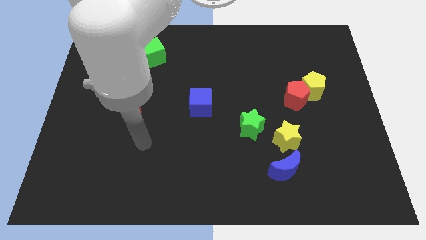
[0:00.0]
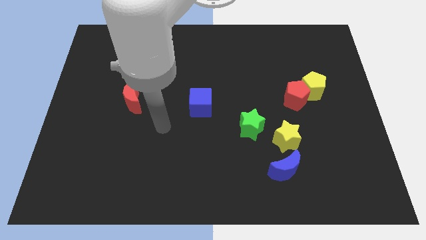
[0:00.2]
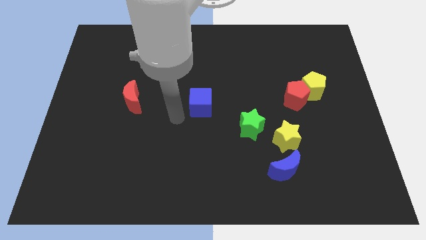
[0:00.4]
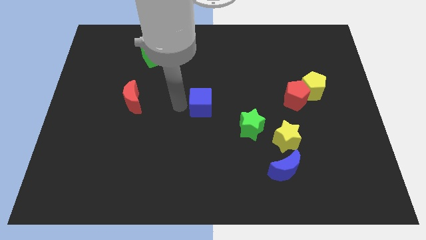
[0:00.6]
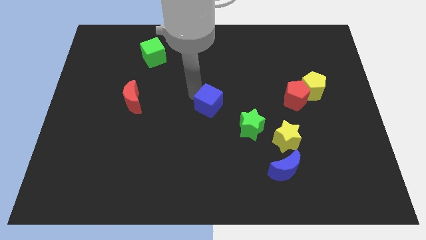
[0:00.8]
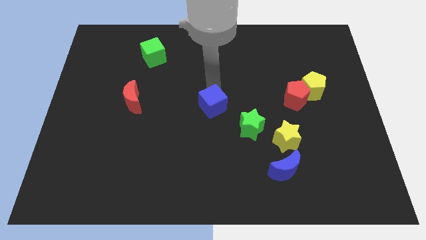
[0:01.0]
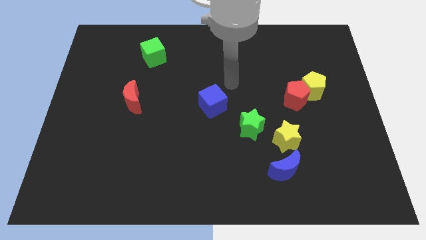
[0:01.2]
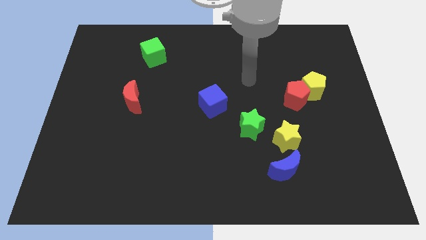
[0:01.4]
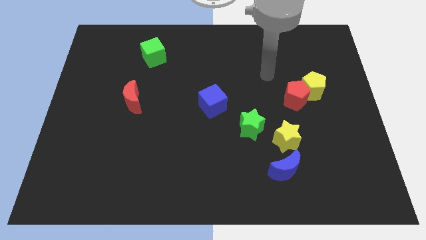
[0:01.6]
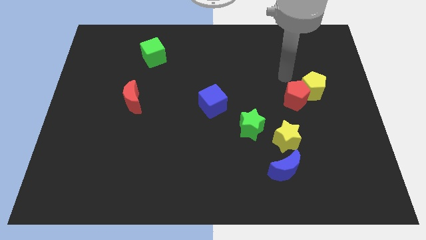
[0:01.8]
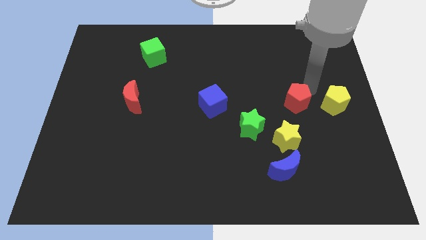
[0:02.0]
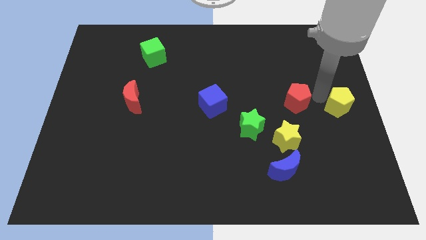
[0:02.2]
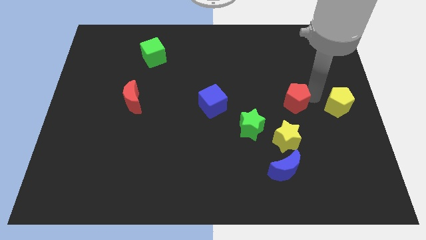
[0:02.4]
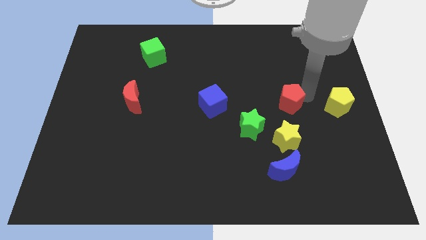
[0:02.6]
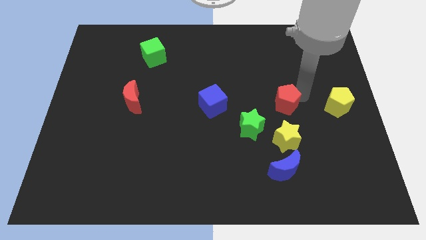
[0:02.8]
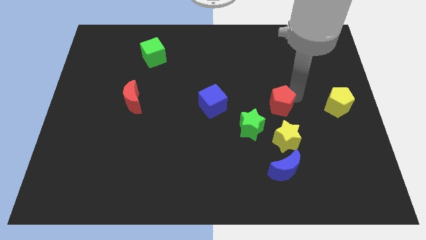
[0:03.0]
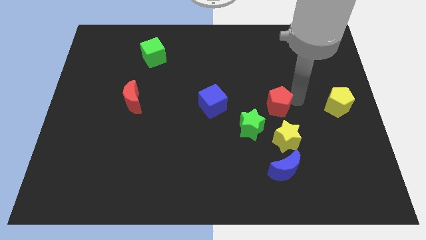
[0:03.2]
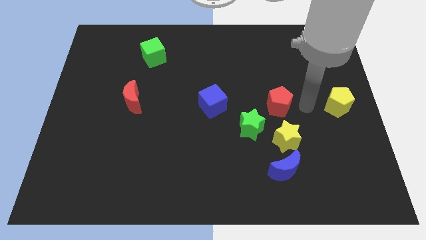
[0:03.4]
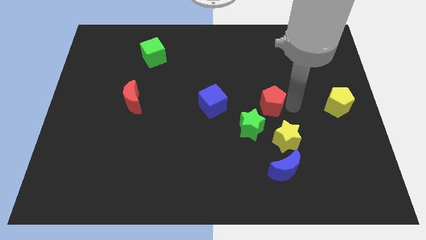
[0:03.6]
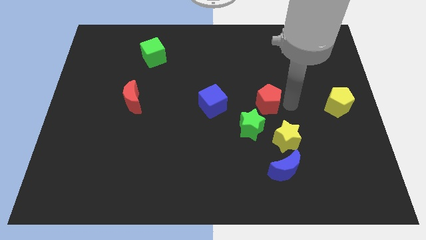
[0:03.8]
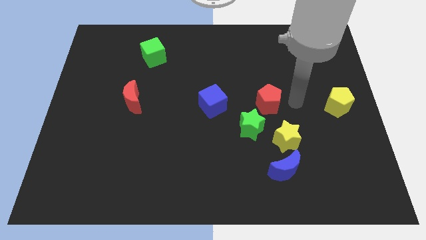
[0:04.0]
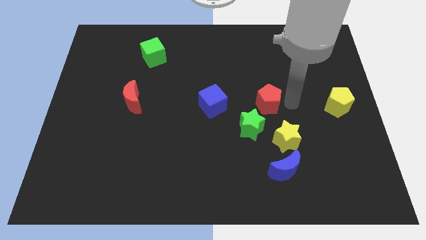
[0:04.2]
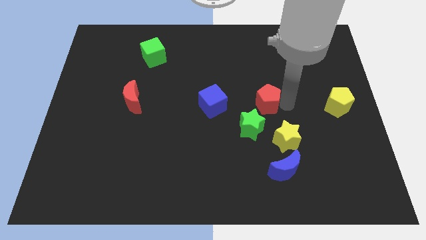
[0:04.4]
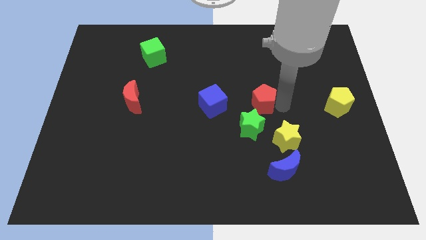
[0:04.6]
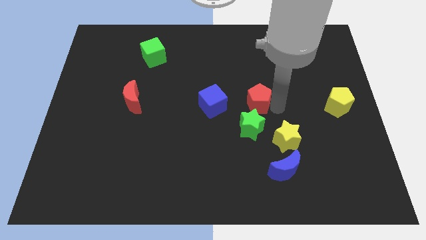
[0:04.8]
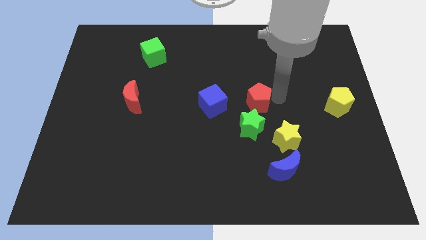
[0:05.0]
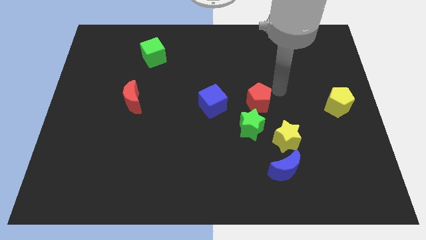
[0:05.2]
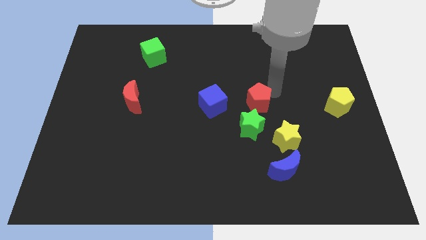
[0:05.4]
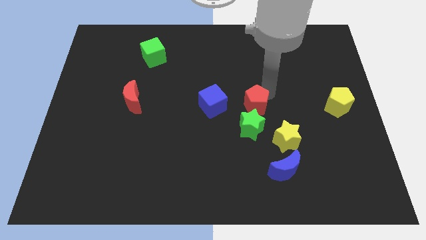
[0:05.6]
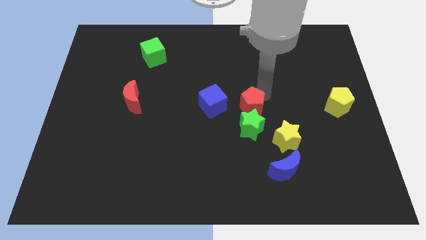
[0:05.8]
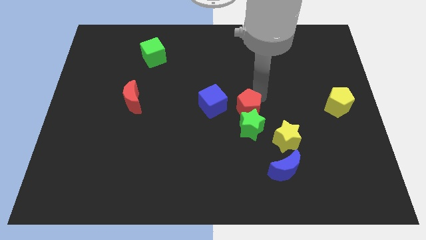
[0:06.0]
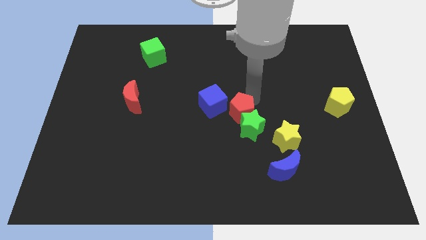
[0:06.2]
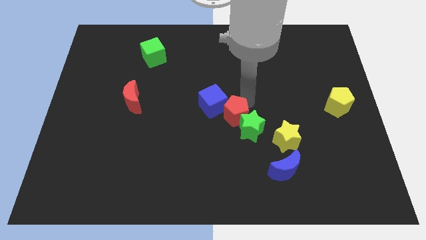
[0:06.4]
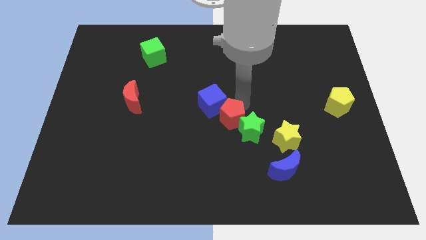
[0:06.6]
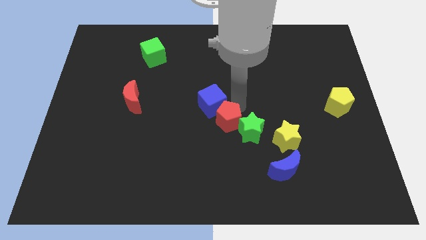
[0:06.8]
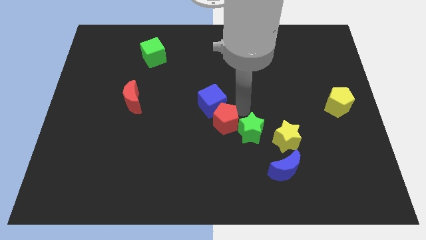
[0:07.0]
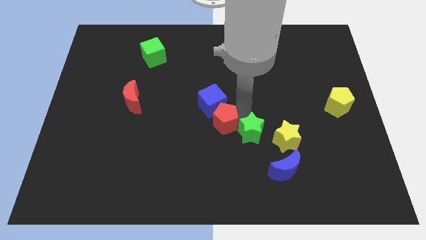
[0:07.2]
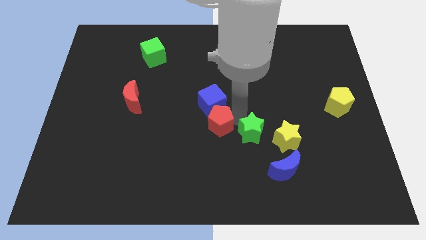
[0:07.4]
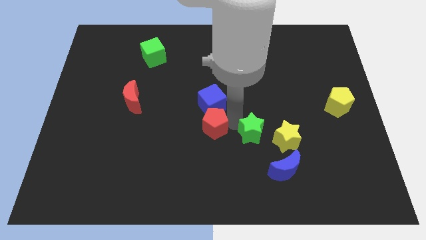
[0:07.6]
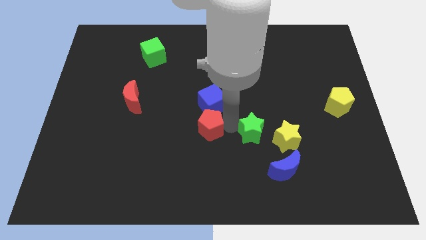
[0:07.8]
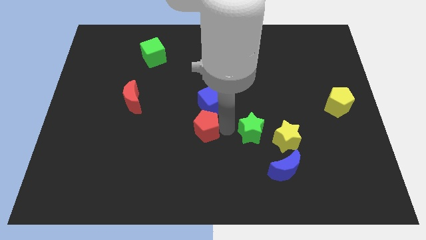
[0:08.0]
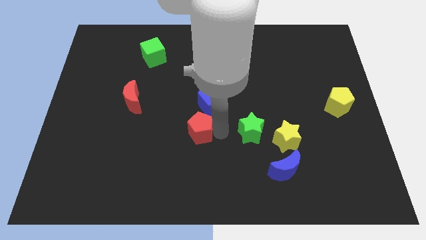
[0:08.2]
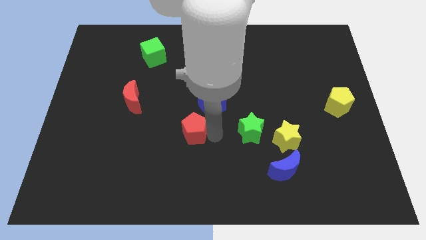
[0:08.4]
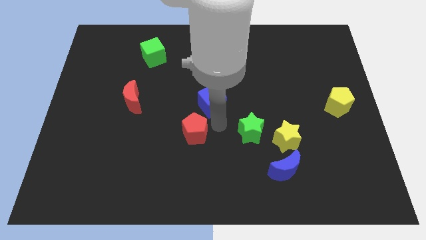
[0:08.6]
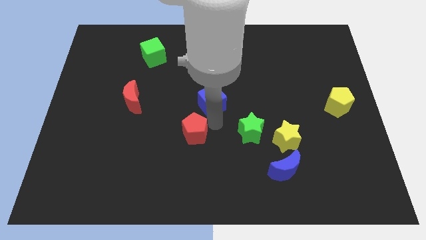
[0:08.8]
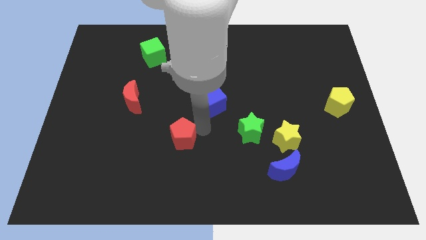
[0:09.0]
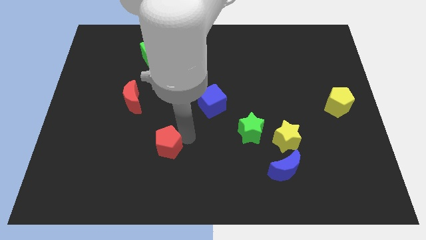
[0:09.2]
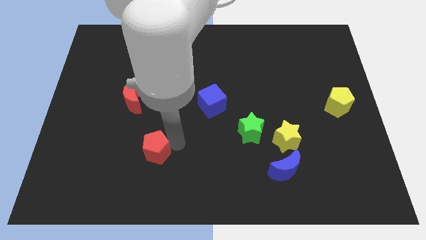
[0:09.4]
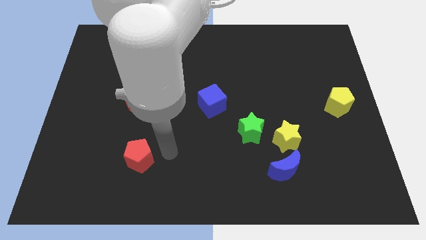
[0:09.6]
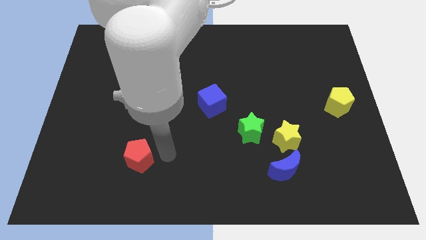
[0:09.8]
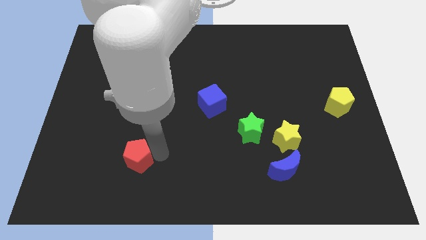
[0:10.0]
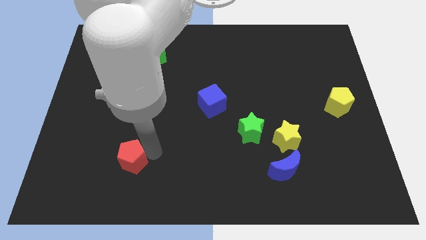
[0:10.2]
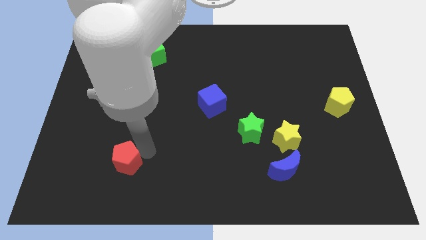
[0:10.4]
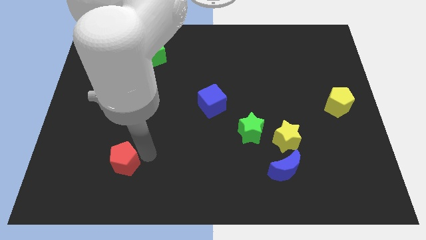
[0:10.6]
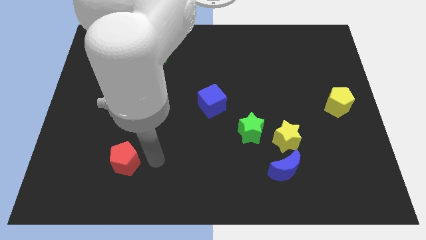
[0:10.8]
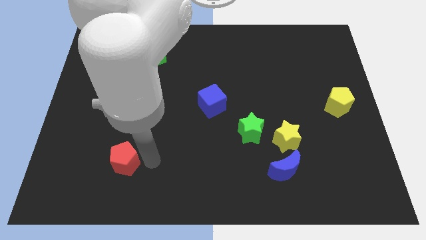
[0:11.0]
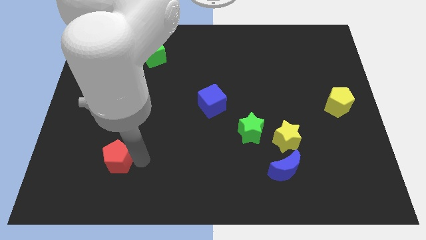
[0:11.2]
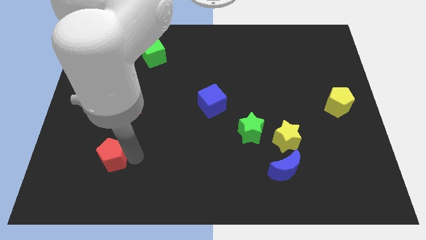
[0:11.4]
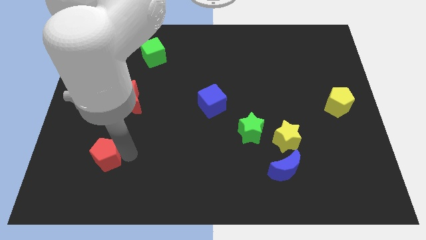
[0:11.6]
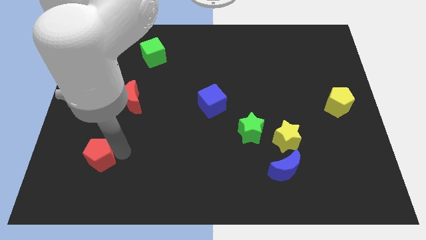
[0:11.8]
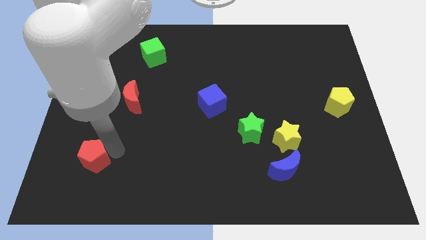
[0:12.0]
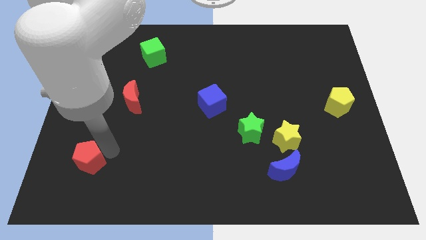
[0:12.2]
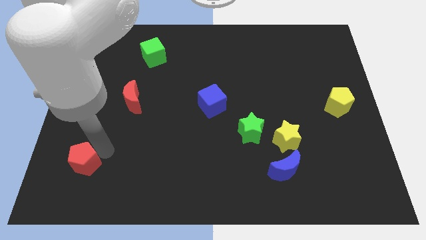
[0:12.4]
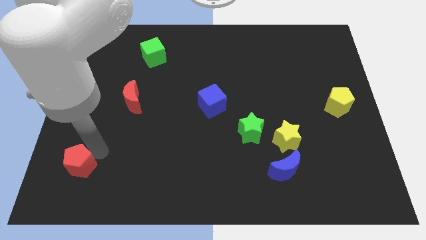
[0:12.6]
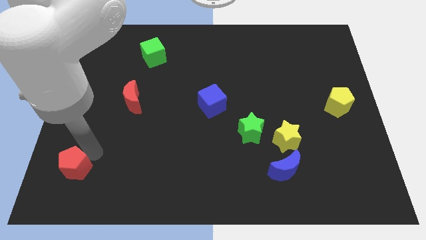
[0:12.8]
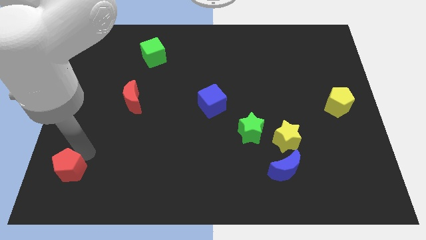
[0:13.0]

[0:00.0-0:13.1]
slide the red pentagon to the bottom left
